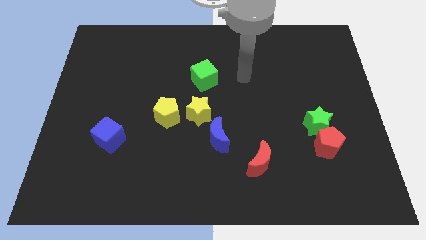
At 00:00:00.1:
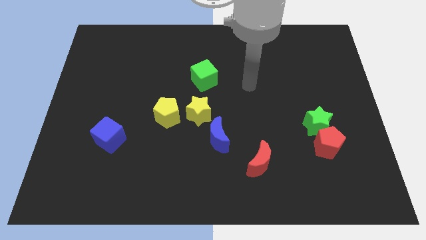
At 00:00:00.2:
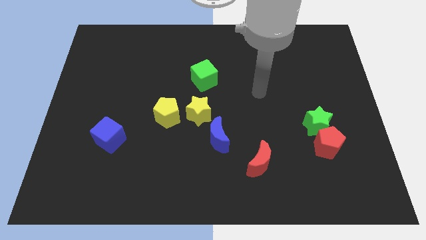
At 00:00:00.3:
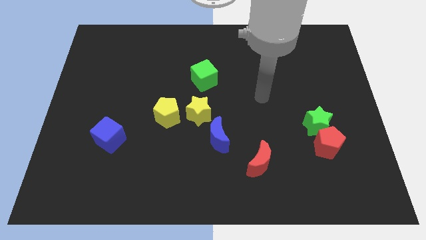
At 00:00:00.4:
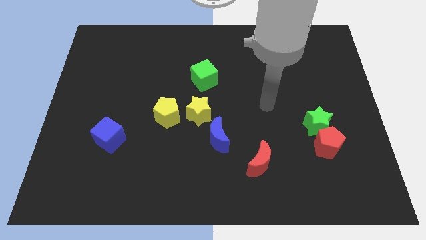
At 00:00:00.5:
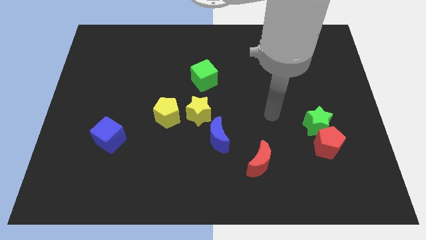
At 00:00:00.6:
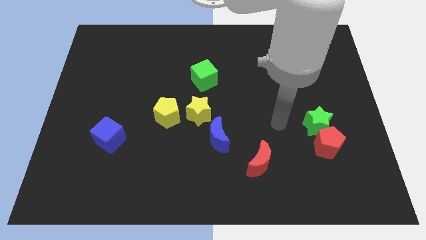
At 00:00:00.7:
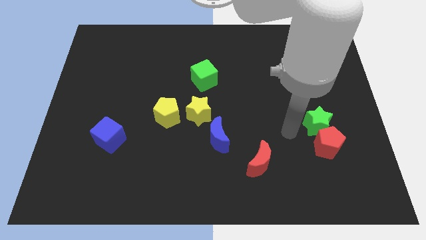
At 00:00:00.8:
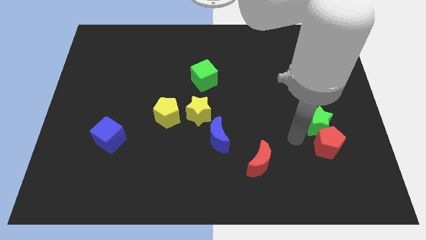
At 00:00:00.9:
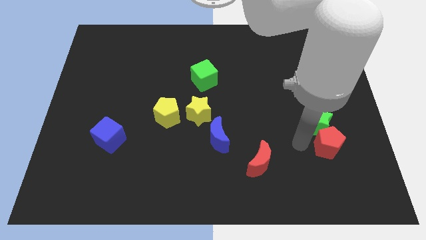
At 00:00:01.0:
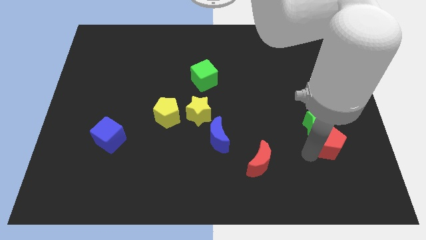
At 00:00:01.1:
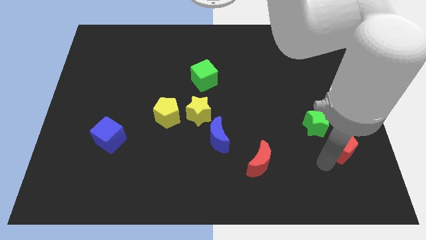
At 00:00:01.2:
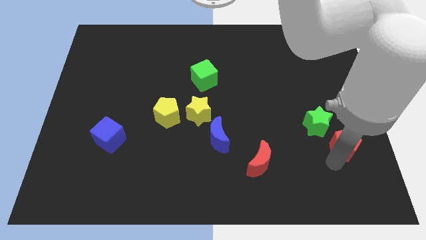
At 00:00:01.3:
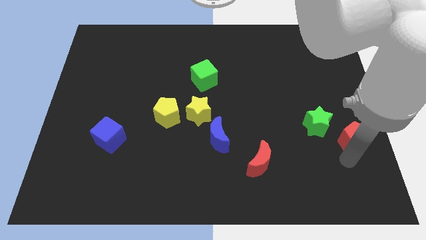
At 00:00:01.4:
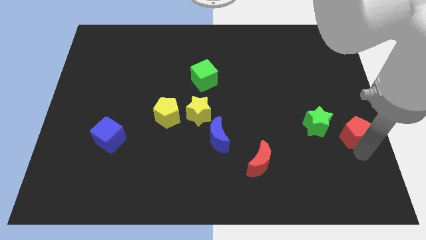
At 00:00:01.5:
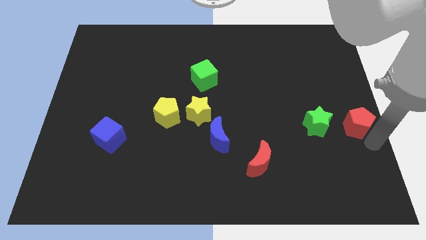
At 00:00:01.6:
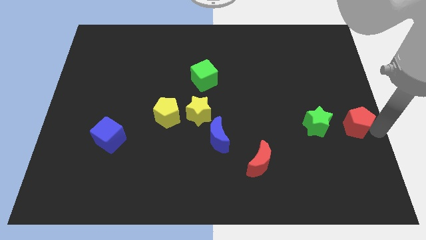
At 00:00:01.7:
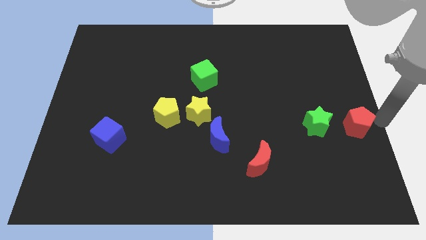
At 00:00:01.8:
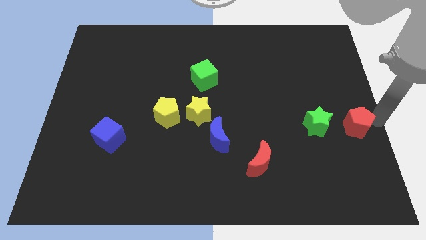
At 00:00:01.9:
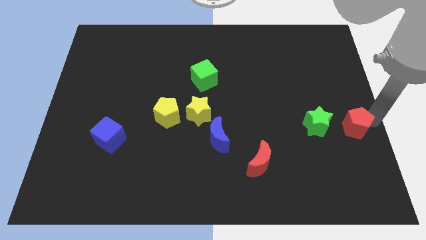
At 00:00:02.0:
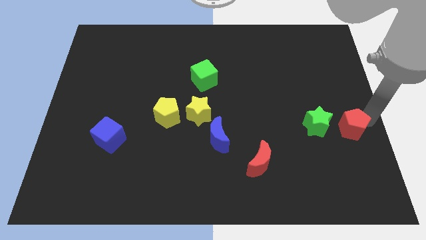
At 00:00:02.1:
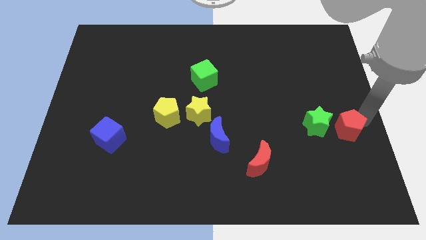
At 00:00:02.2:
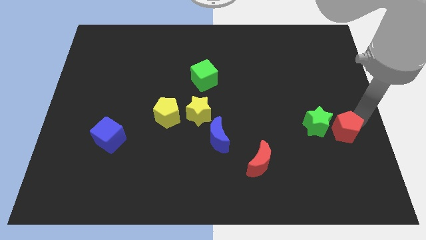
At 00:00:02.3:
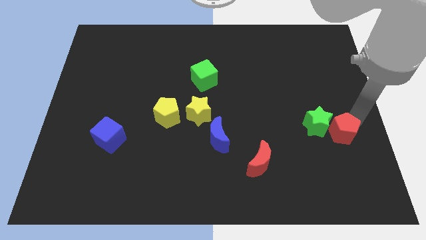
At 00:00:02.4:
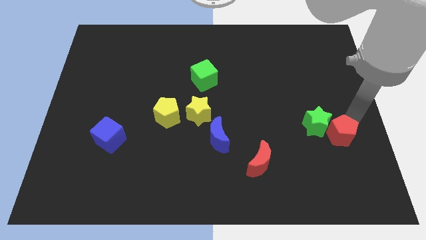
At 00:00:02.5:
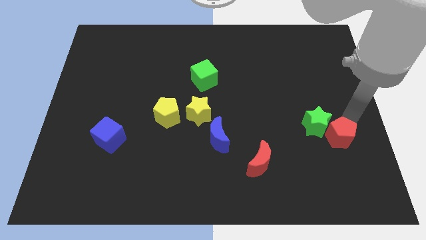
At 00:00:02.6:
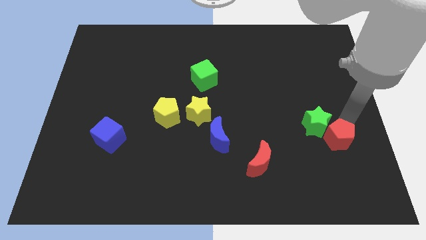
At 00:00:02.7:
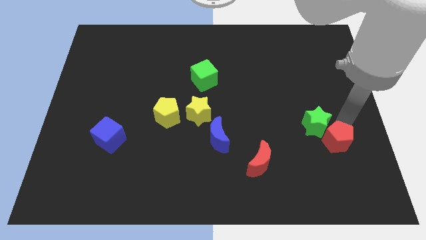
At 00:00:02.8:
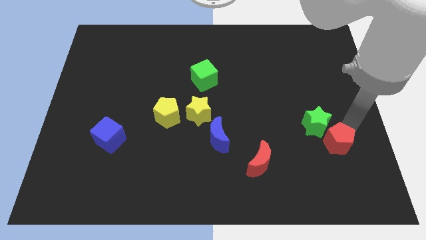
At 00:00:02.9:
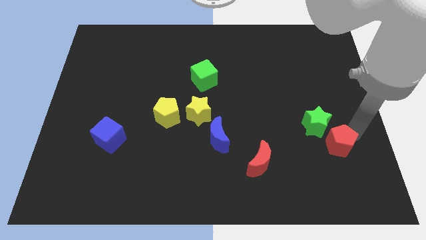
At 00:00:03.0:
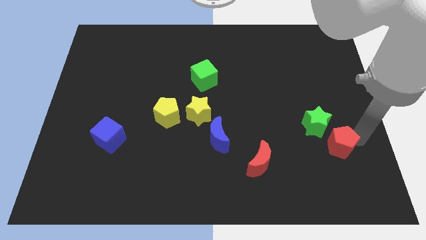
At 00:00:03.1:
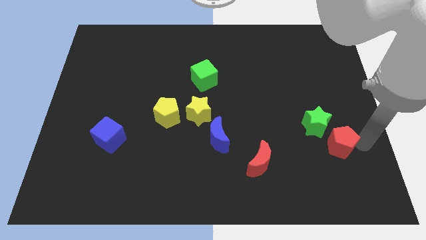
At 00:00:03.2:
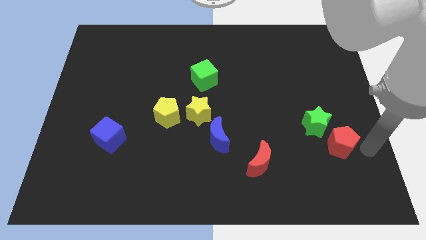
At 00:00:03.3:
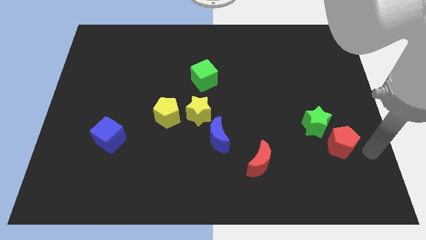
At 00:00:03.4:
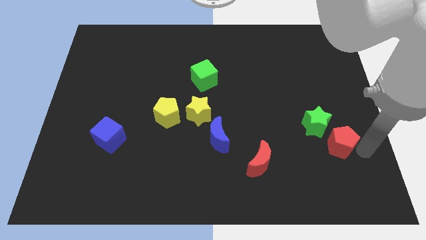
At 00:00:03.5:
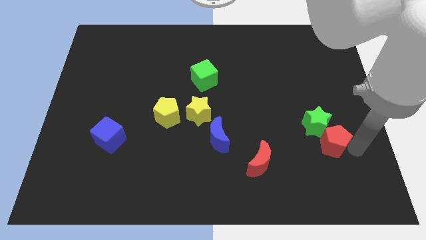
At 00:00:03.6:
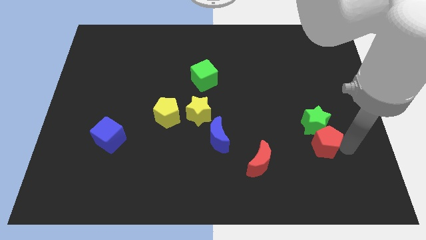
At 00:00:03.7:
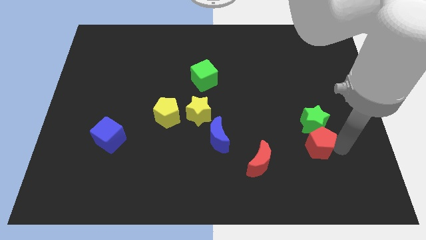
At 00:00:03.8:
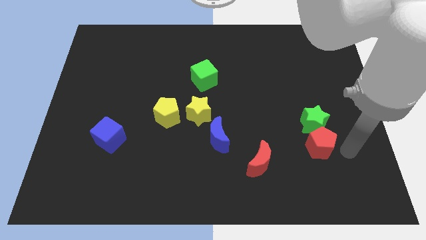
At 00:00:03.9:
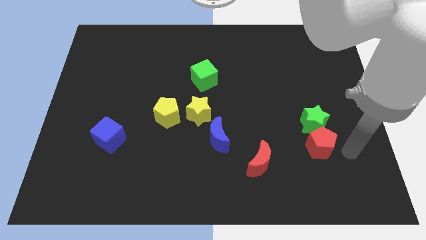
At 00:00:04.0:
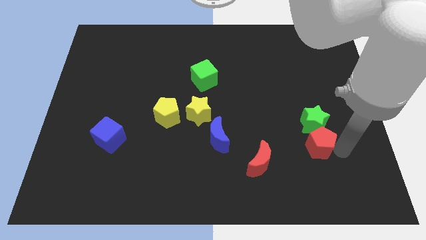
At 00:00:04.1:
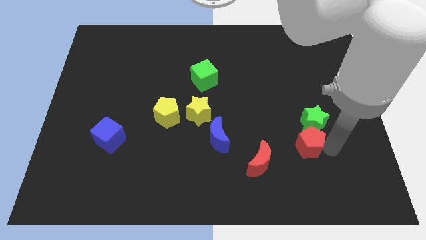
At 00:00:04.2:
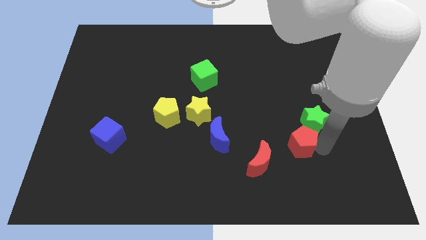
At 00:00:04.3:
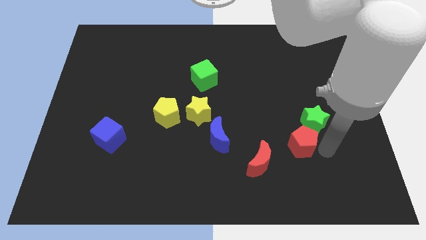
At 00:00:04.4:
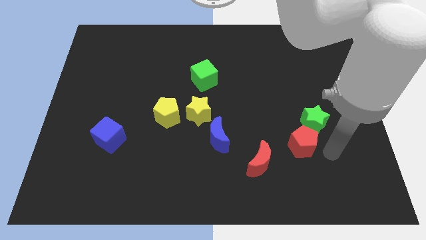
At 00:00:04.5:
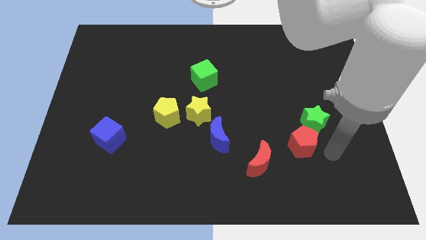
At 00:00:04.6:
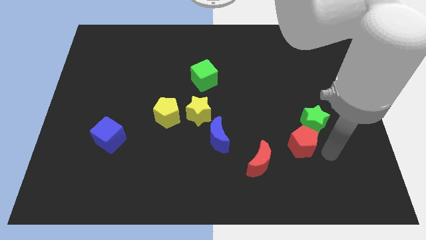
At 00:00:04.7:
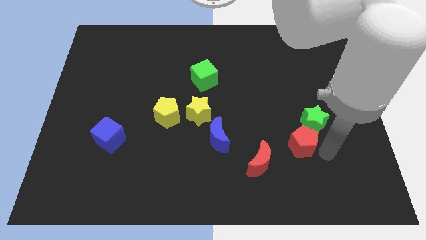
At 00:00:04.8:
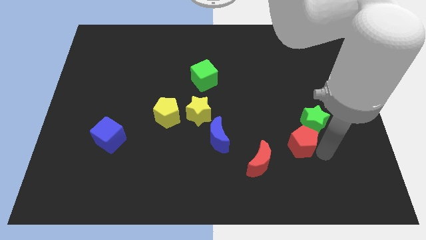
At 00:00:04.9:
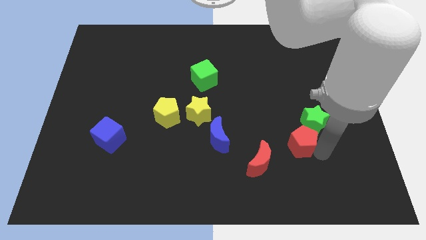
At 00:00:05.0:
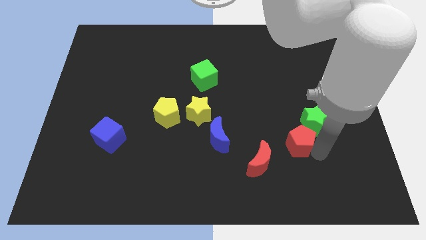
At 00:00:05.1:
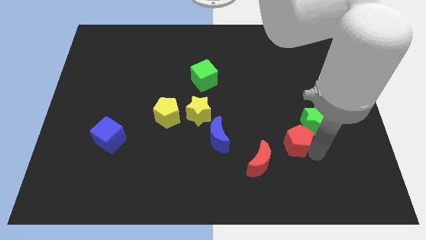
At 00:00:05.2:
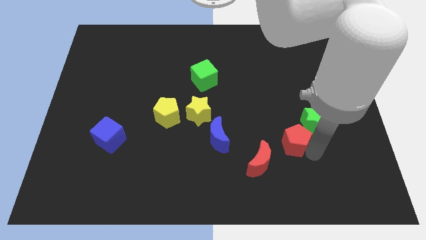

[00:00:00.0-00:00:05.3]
slide the red pentagon to the left somewhat

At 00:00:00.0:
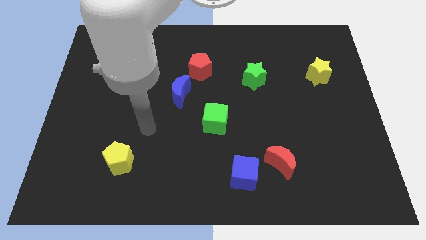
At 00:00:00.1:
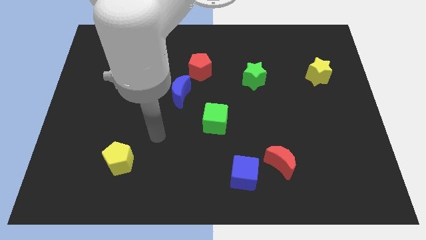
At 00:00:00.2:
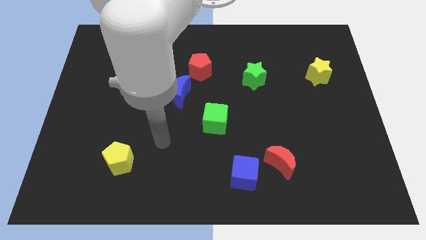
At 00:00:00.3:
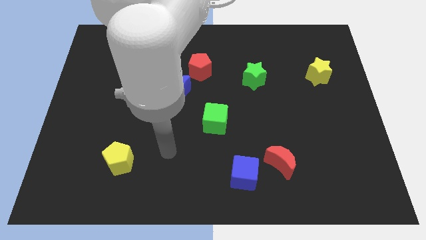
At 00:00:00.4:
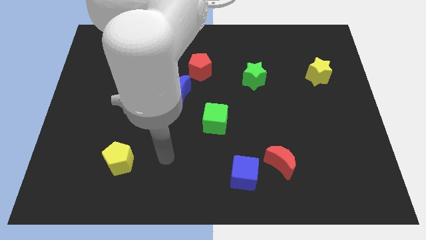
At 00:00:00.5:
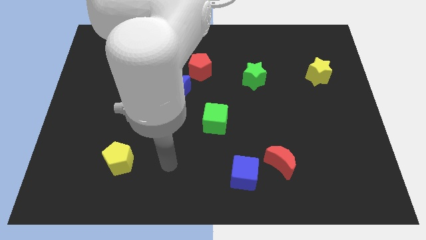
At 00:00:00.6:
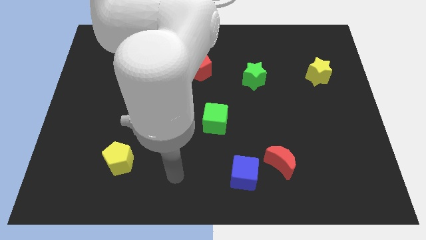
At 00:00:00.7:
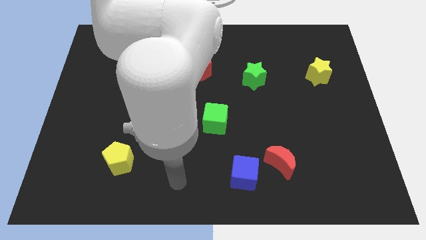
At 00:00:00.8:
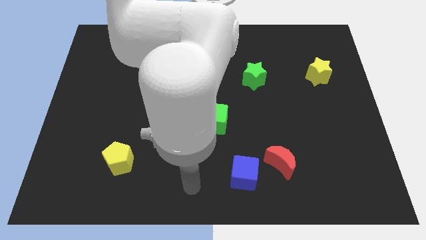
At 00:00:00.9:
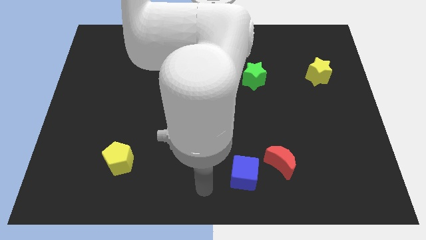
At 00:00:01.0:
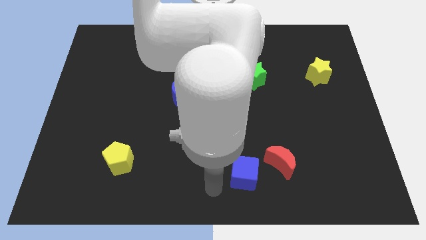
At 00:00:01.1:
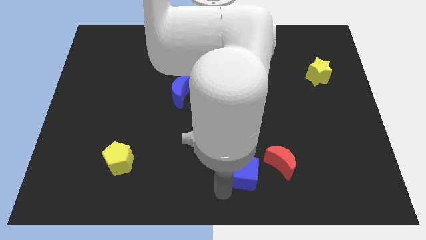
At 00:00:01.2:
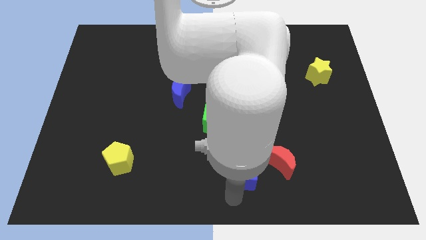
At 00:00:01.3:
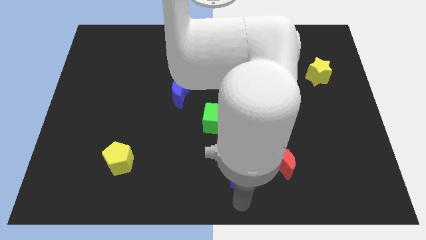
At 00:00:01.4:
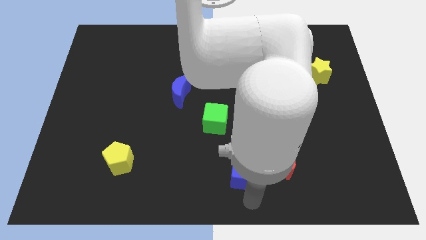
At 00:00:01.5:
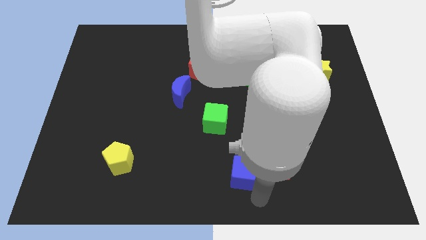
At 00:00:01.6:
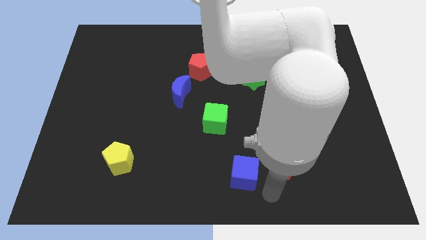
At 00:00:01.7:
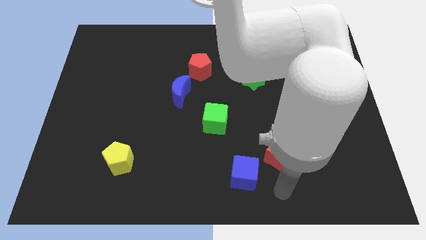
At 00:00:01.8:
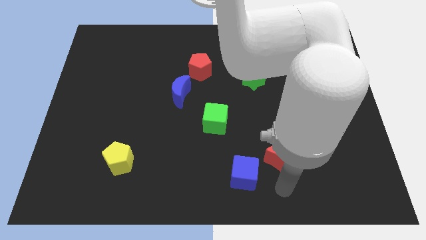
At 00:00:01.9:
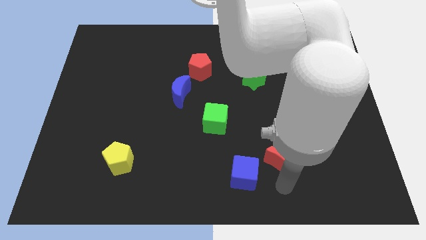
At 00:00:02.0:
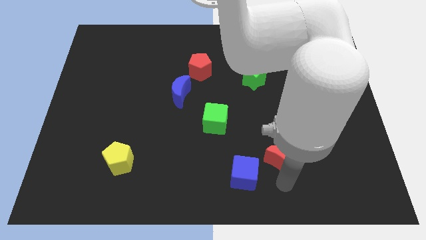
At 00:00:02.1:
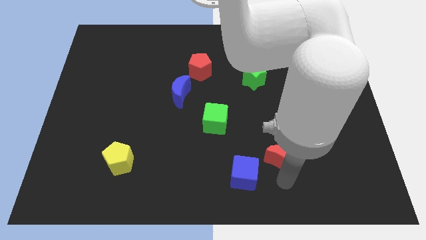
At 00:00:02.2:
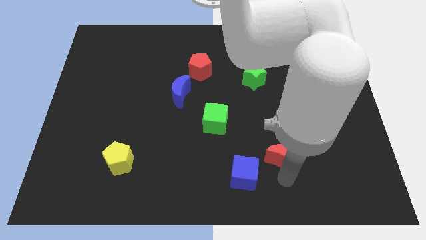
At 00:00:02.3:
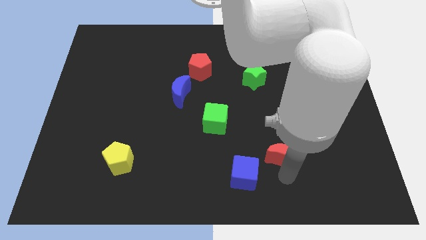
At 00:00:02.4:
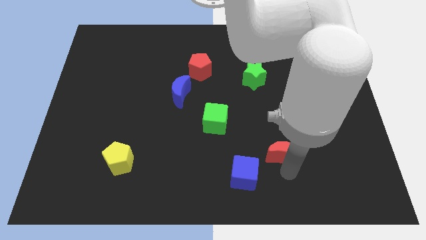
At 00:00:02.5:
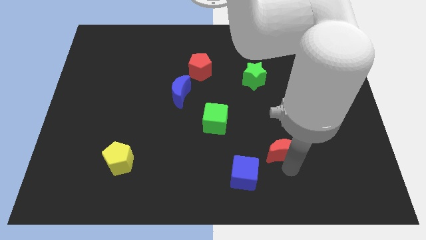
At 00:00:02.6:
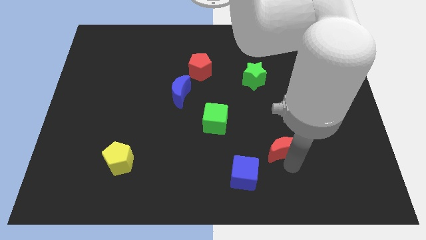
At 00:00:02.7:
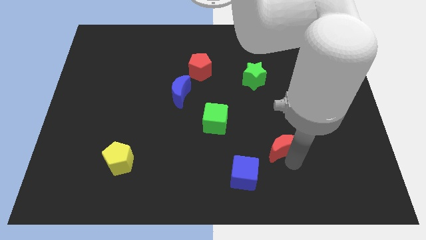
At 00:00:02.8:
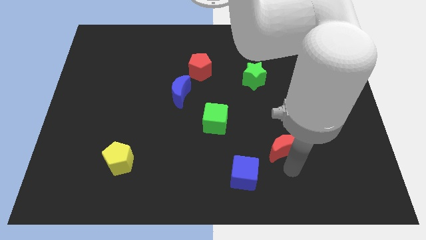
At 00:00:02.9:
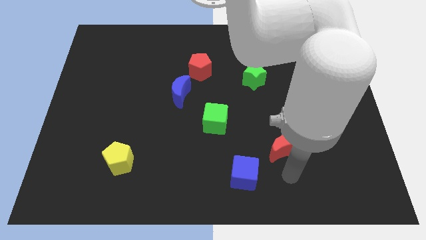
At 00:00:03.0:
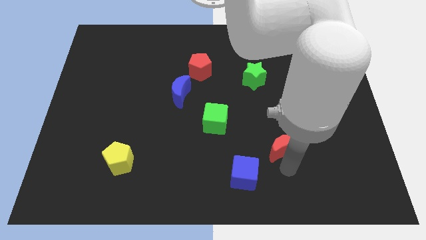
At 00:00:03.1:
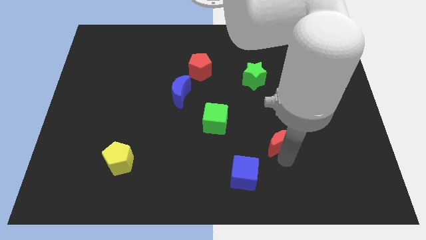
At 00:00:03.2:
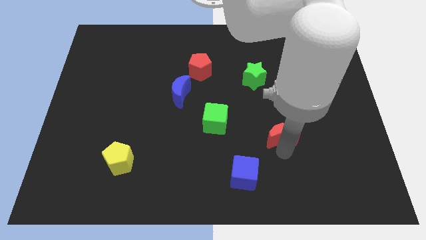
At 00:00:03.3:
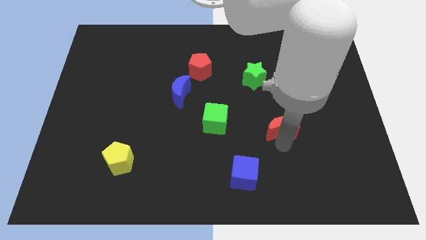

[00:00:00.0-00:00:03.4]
slide the red moon up a bit
